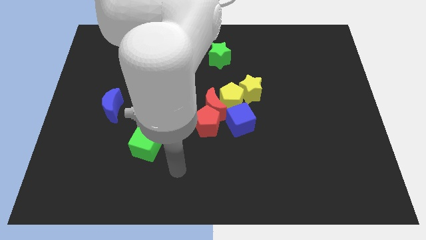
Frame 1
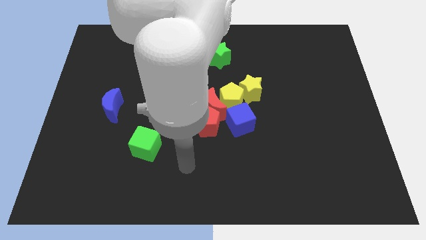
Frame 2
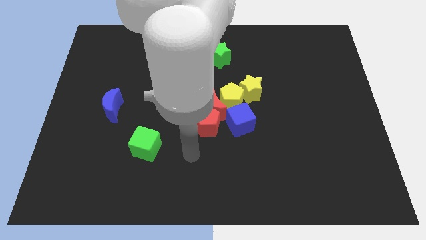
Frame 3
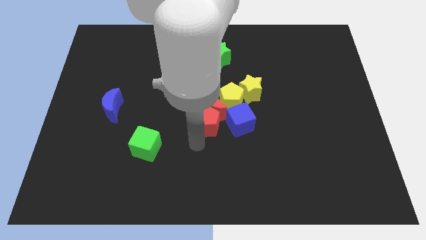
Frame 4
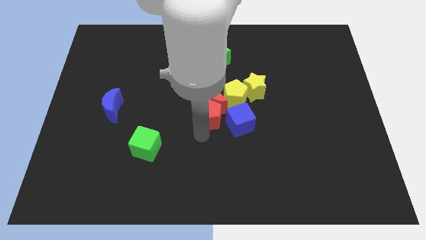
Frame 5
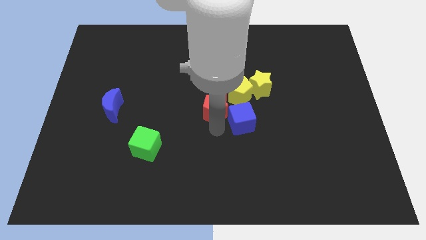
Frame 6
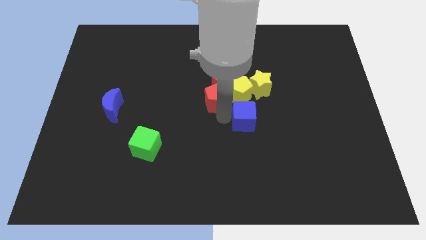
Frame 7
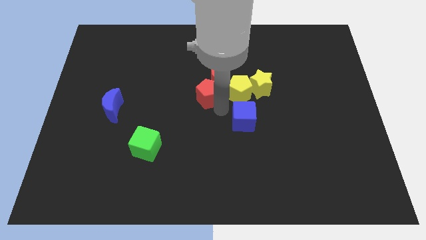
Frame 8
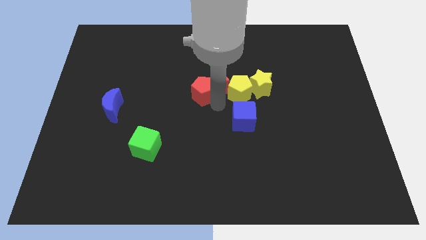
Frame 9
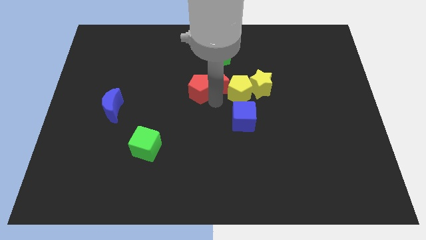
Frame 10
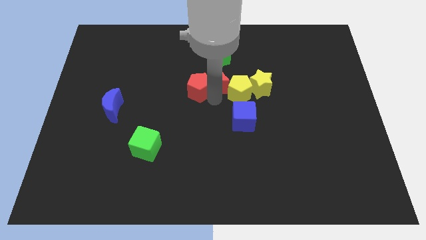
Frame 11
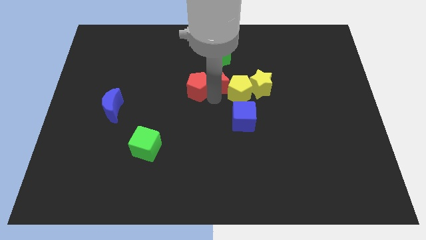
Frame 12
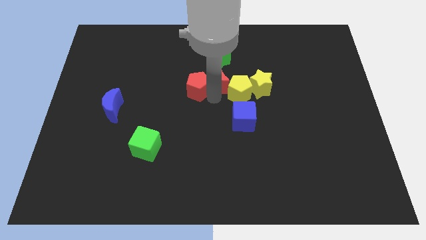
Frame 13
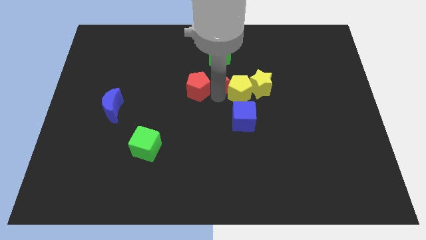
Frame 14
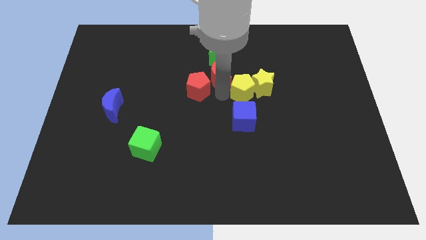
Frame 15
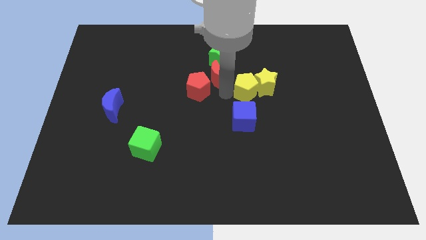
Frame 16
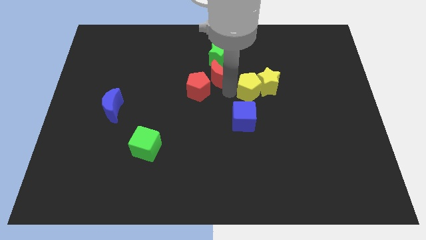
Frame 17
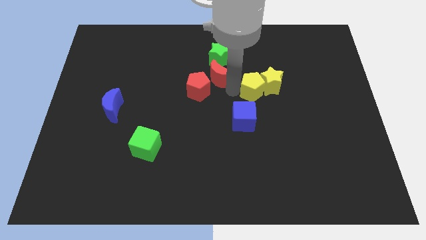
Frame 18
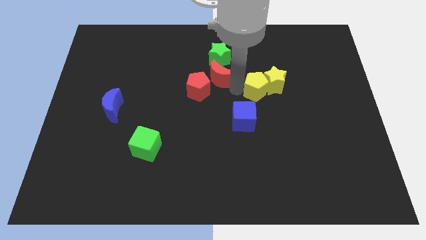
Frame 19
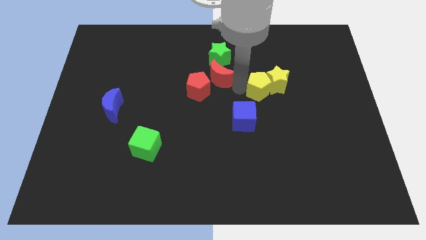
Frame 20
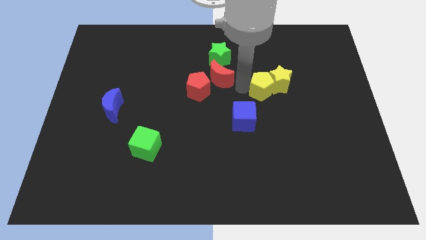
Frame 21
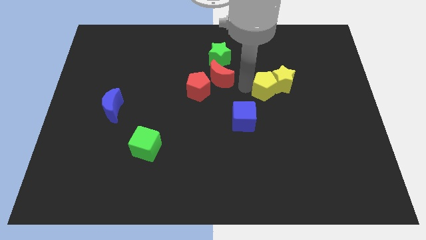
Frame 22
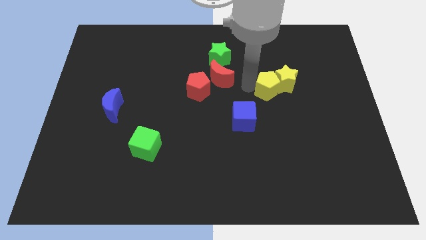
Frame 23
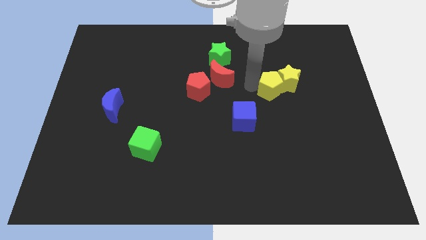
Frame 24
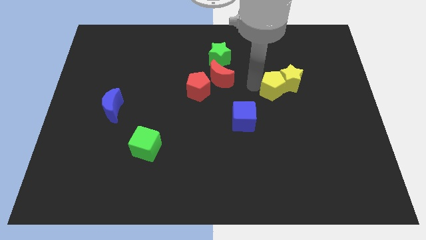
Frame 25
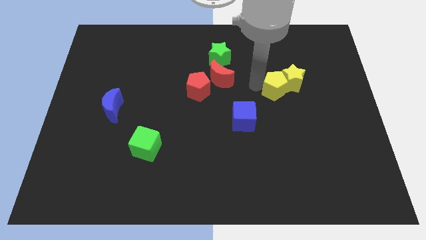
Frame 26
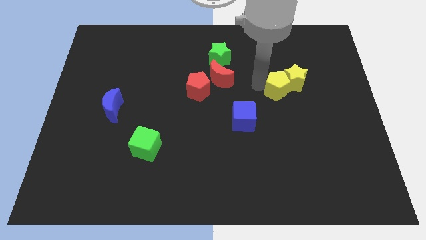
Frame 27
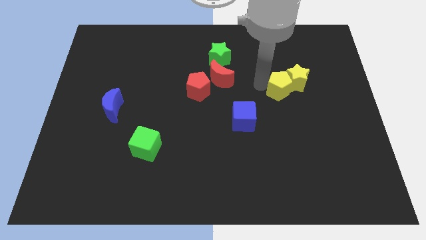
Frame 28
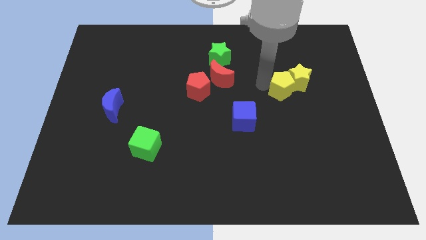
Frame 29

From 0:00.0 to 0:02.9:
move the yellow pentagon away from the group of blocks

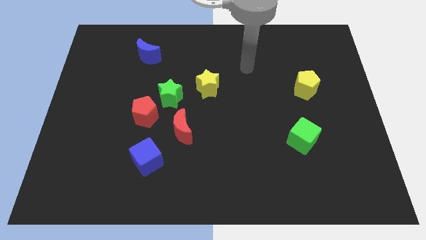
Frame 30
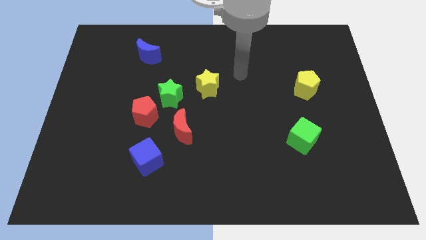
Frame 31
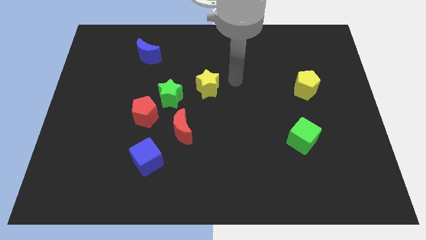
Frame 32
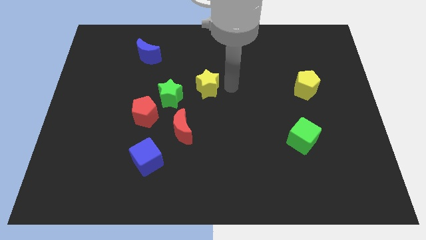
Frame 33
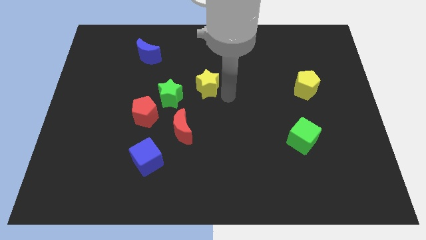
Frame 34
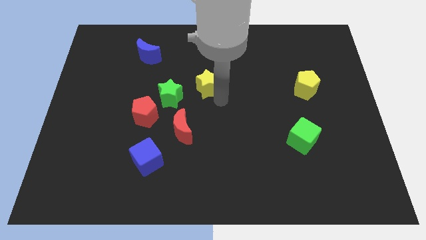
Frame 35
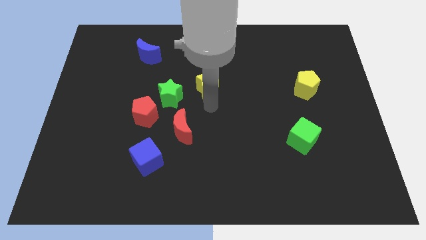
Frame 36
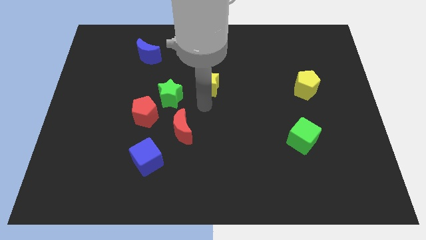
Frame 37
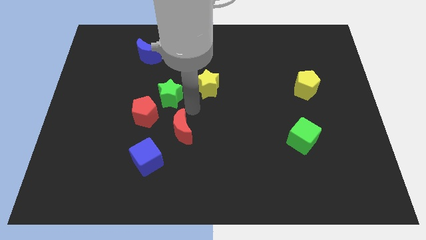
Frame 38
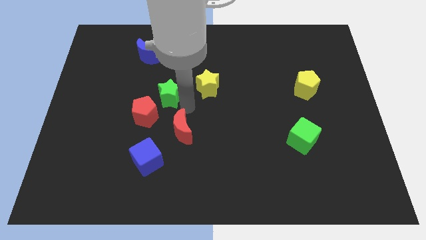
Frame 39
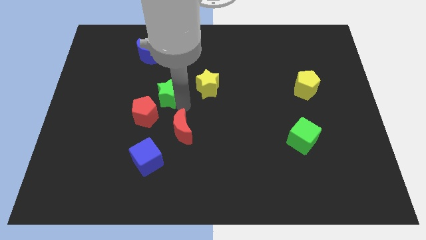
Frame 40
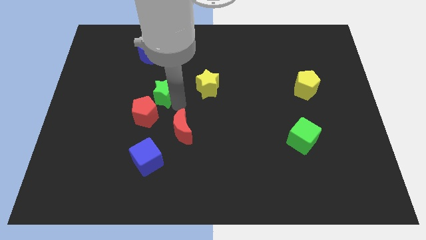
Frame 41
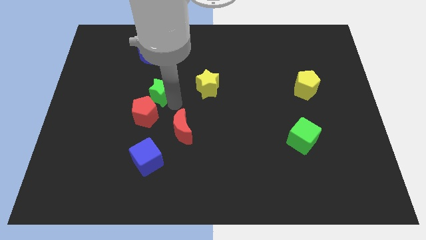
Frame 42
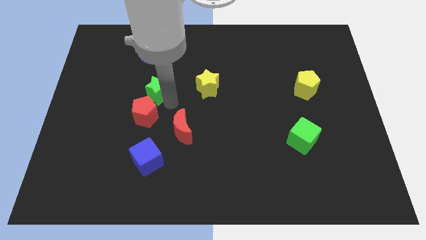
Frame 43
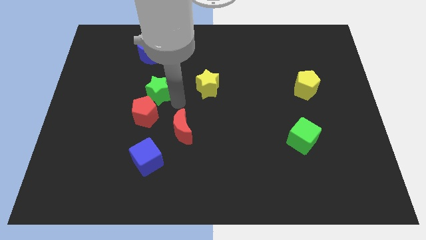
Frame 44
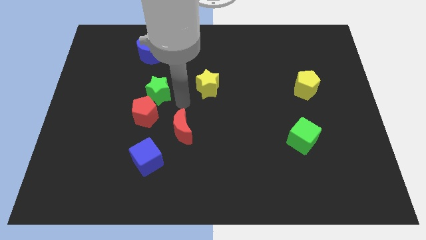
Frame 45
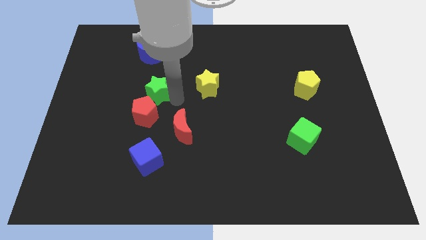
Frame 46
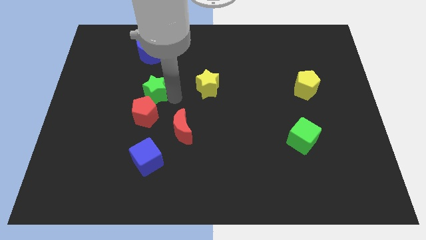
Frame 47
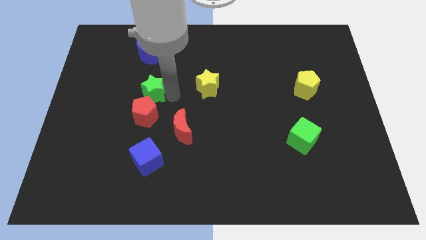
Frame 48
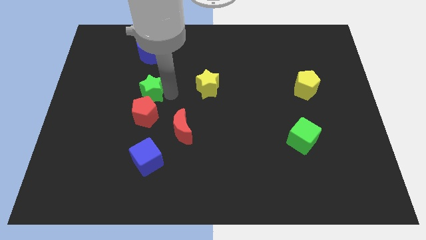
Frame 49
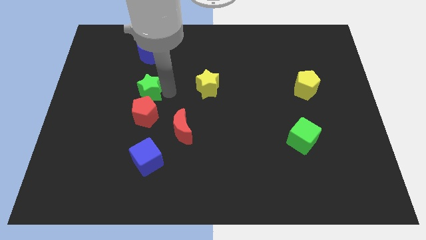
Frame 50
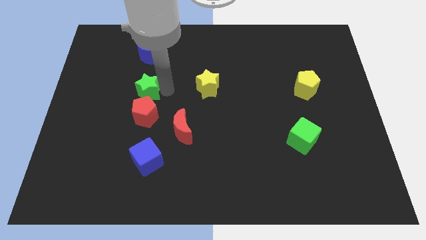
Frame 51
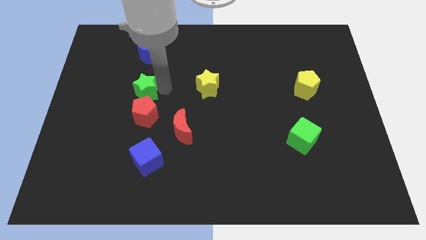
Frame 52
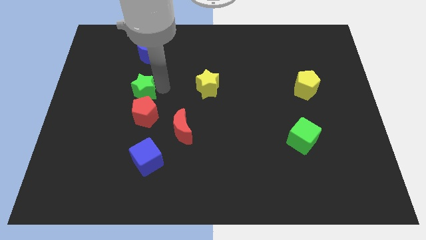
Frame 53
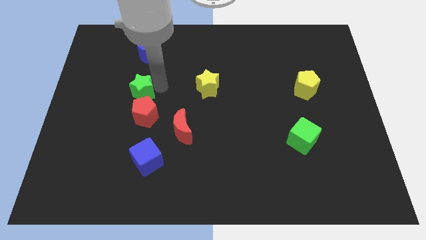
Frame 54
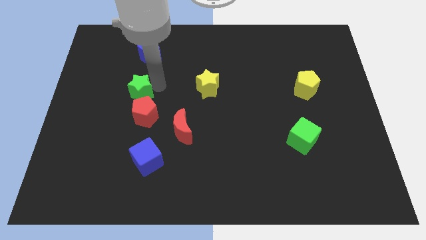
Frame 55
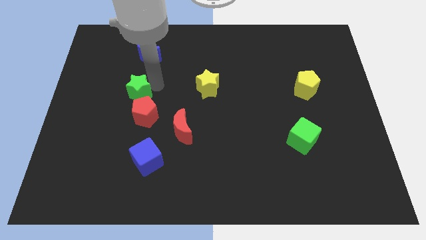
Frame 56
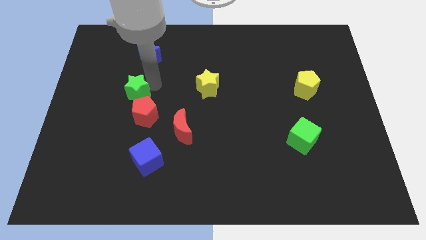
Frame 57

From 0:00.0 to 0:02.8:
separate the green star from the red pentagon and yellow star

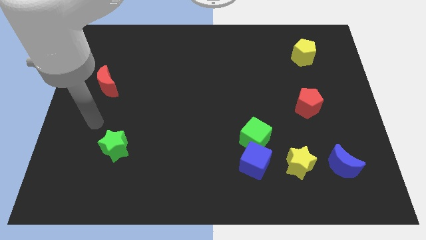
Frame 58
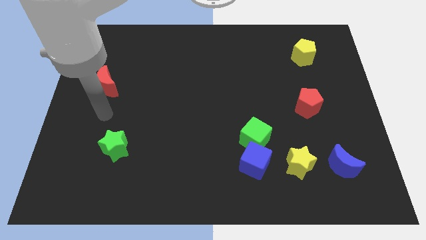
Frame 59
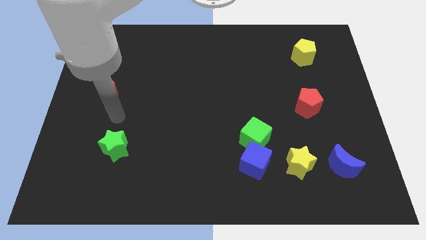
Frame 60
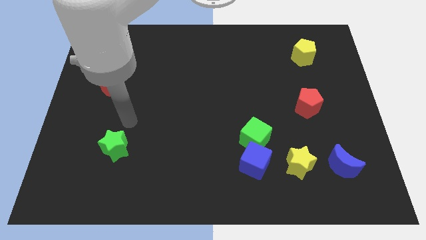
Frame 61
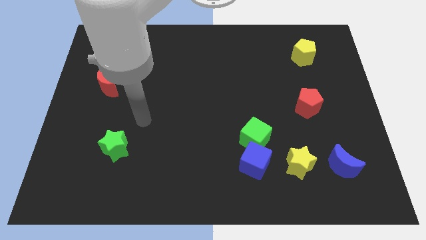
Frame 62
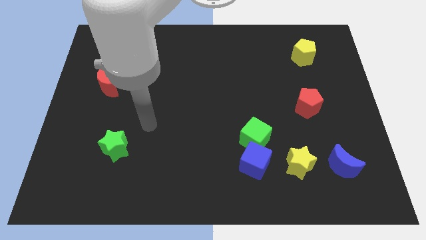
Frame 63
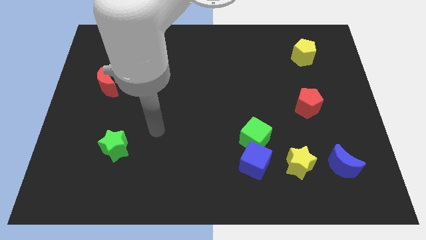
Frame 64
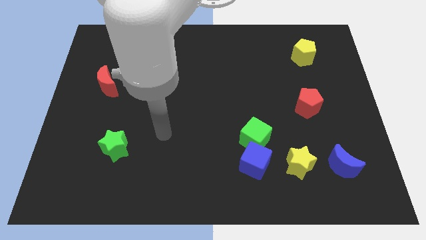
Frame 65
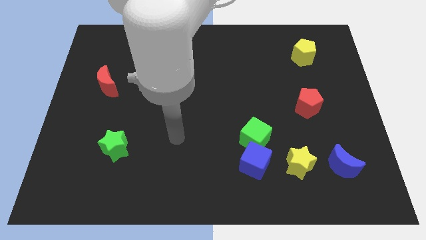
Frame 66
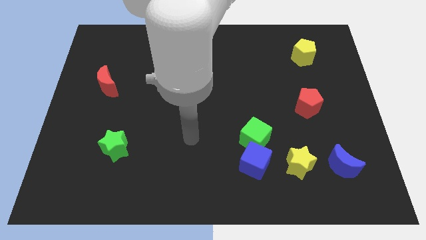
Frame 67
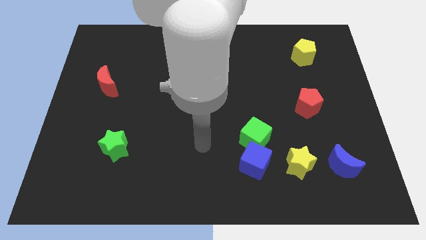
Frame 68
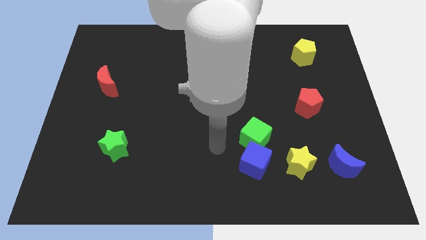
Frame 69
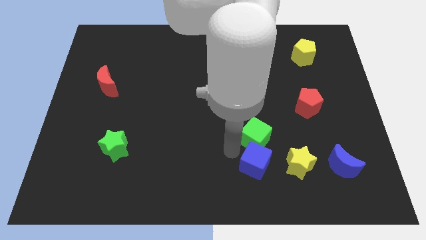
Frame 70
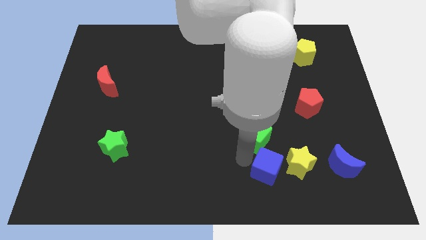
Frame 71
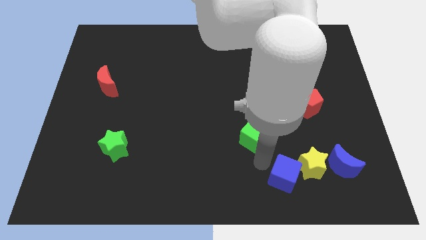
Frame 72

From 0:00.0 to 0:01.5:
move the green cube away from the blue cube

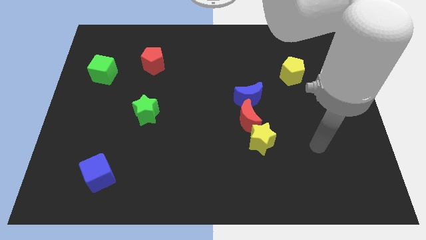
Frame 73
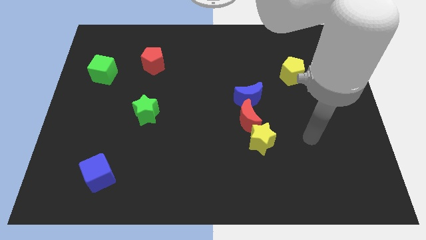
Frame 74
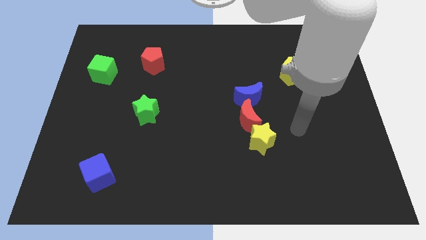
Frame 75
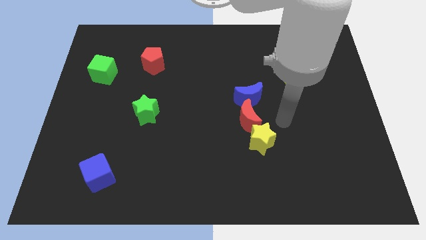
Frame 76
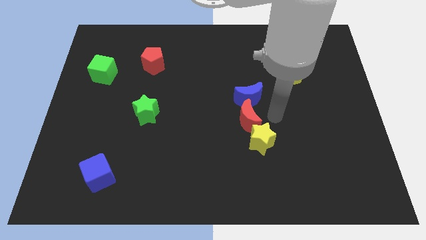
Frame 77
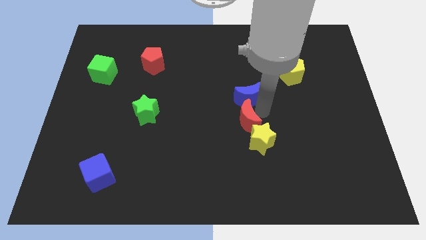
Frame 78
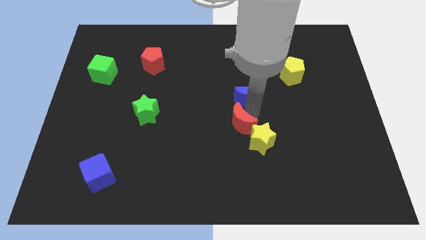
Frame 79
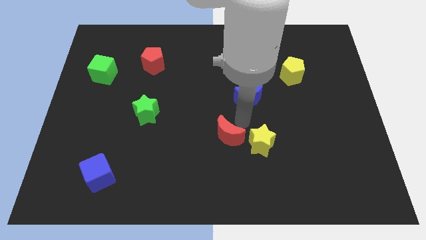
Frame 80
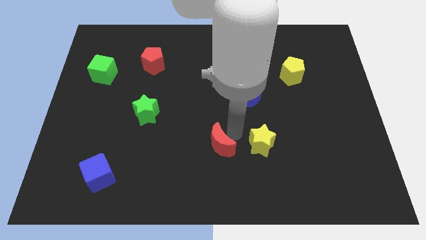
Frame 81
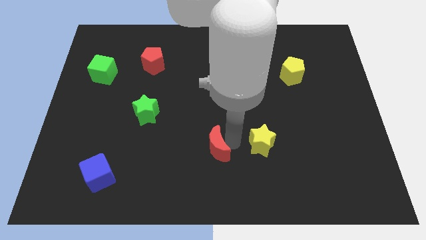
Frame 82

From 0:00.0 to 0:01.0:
pull the yellow star apart from the red moon

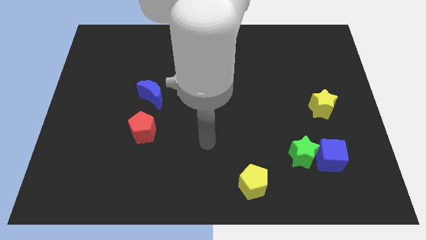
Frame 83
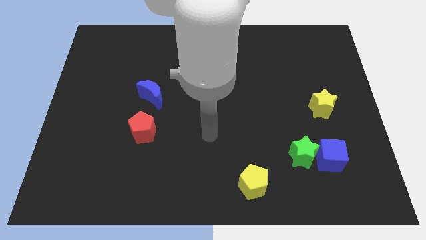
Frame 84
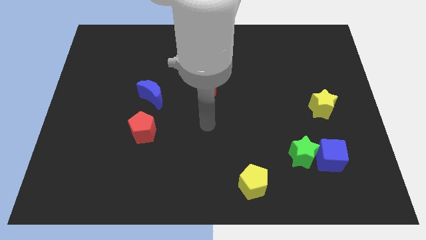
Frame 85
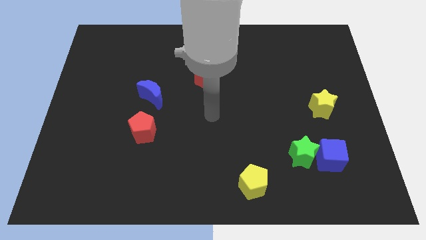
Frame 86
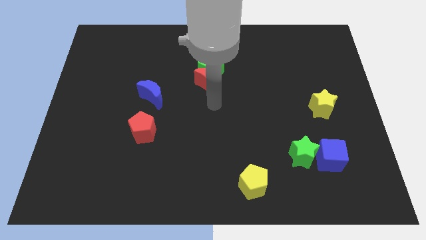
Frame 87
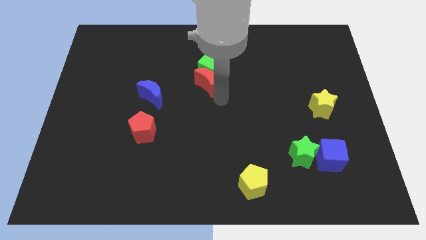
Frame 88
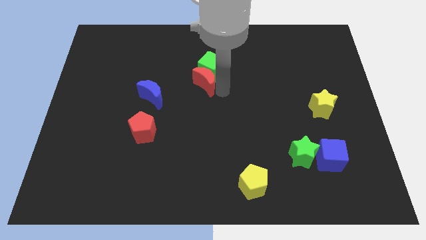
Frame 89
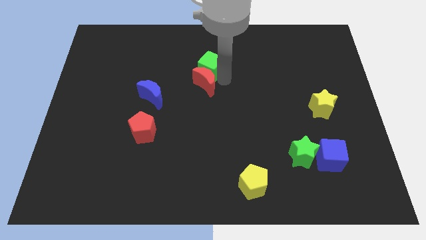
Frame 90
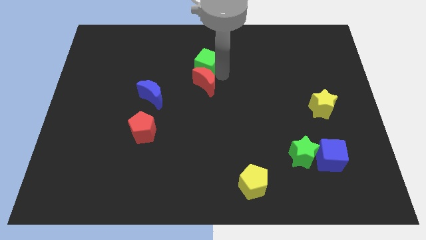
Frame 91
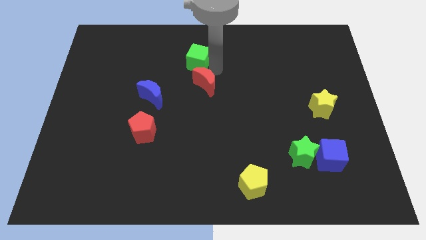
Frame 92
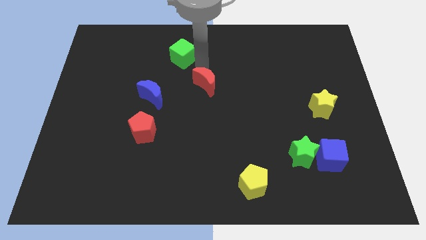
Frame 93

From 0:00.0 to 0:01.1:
separate the red moon from the green cube
